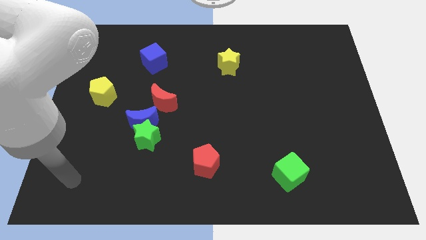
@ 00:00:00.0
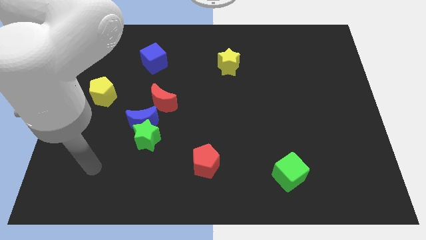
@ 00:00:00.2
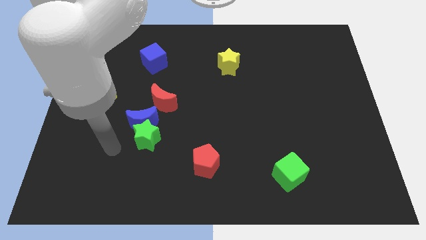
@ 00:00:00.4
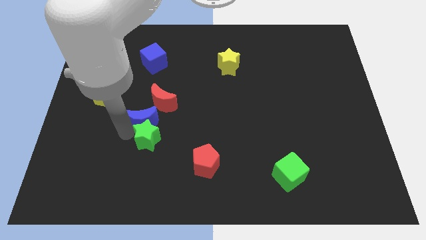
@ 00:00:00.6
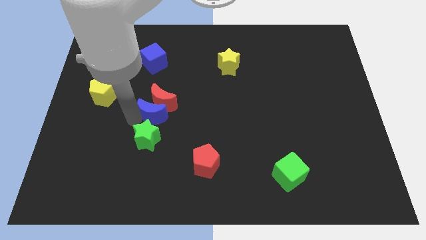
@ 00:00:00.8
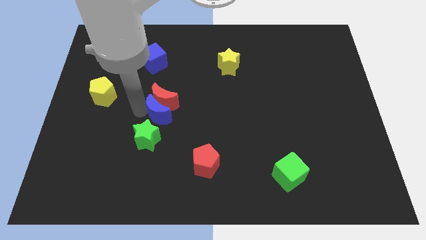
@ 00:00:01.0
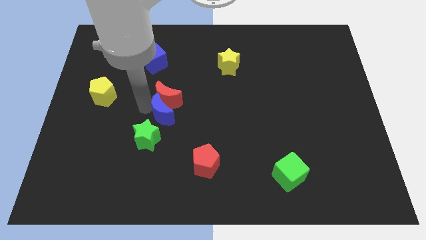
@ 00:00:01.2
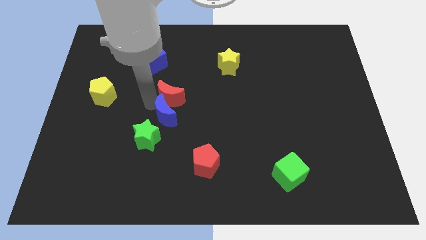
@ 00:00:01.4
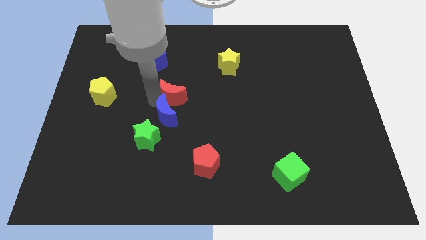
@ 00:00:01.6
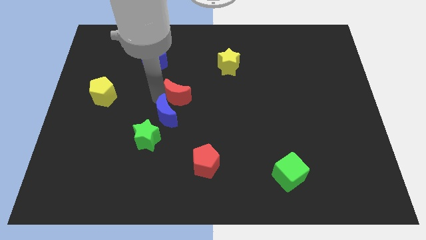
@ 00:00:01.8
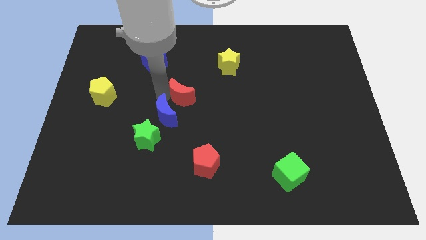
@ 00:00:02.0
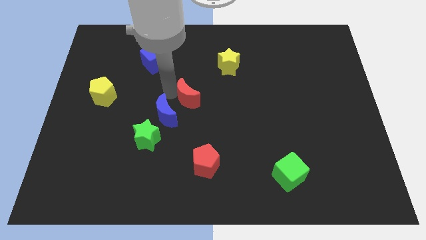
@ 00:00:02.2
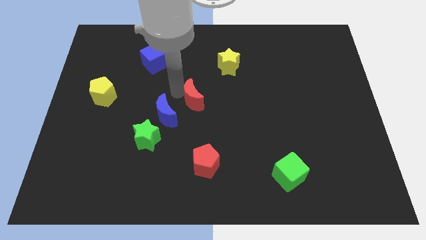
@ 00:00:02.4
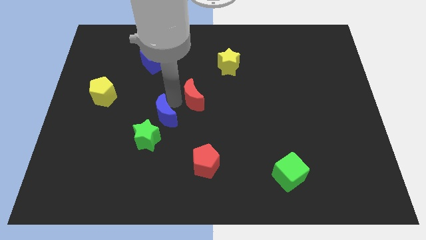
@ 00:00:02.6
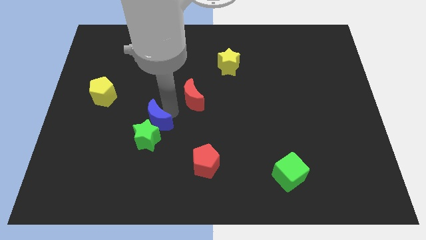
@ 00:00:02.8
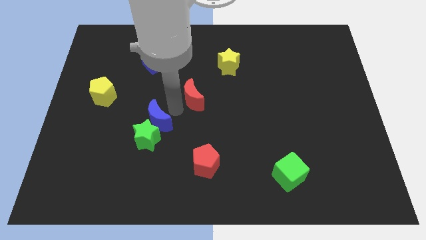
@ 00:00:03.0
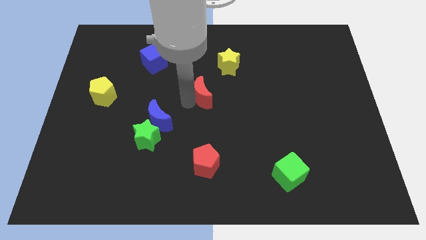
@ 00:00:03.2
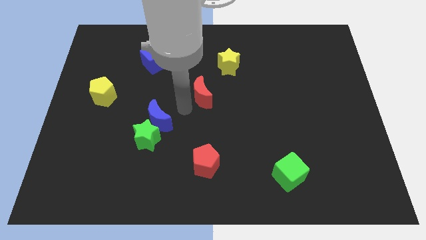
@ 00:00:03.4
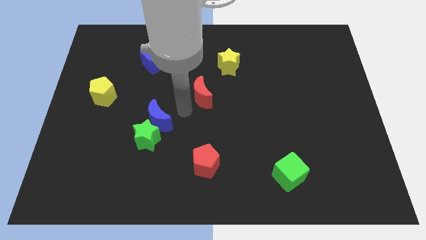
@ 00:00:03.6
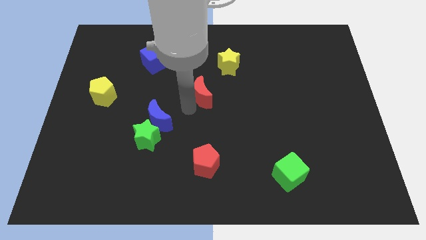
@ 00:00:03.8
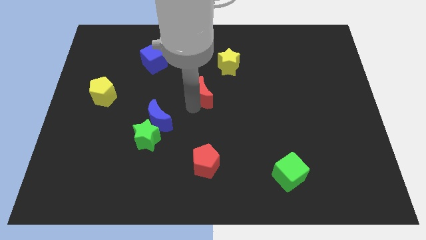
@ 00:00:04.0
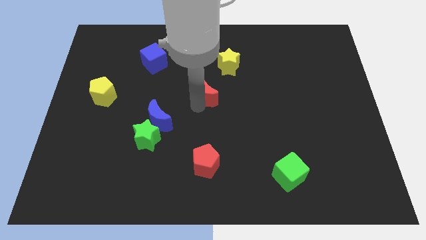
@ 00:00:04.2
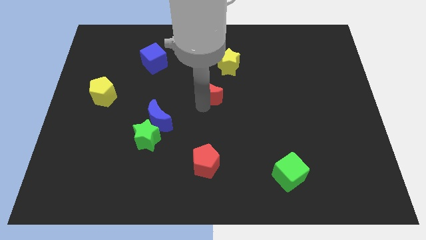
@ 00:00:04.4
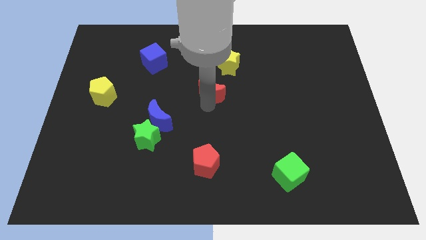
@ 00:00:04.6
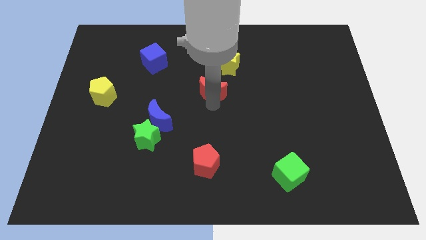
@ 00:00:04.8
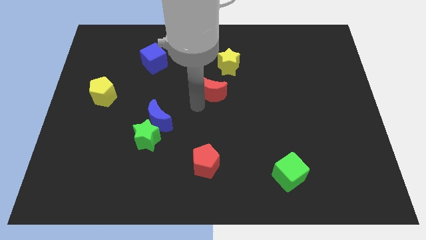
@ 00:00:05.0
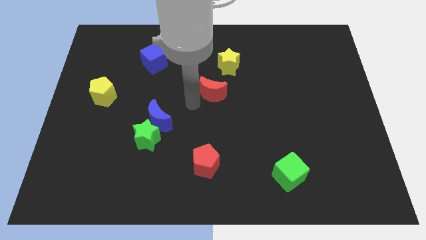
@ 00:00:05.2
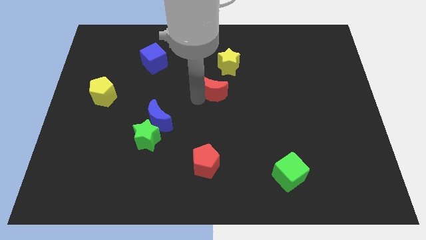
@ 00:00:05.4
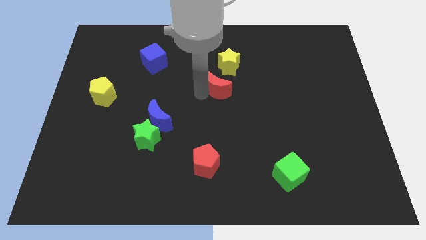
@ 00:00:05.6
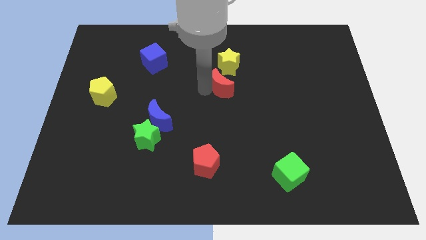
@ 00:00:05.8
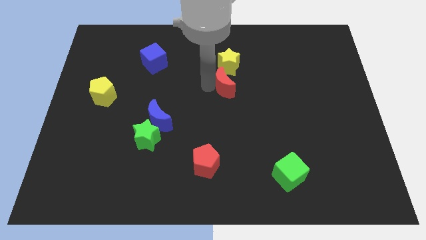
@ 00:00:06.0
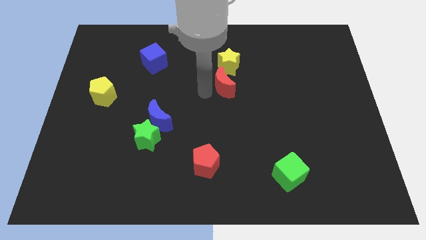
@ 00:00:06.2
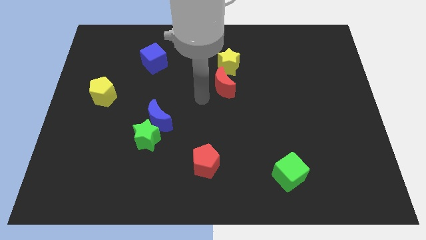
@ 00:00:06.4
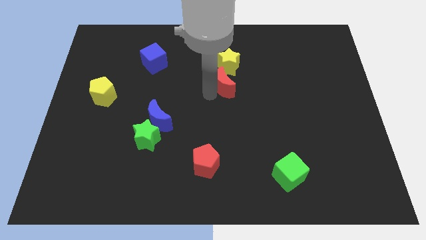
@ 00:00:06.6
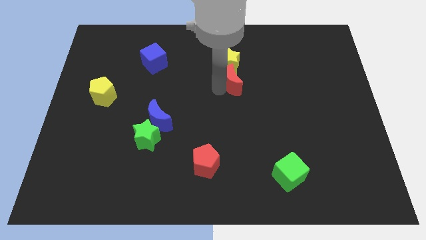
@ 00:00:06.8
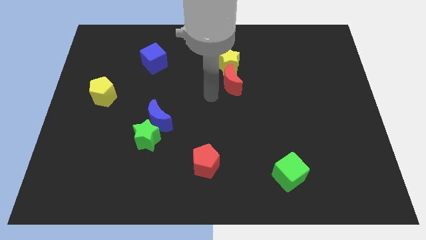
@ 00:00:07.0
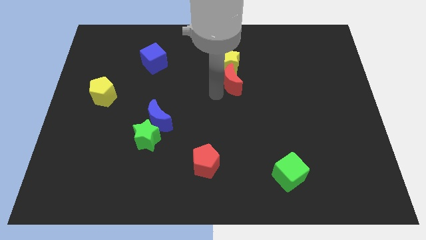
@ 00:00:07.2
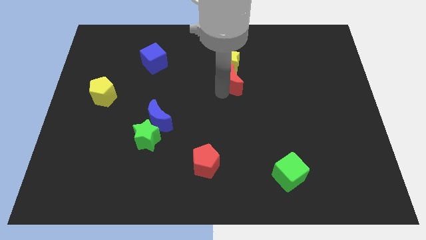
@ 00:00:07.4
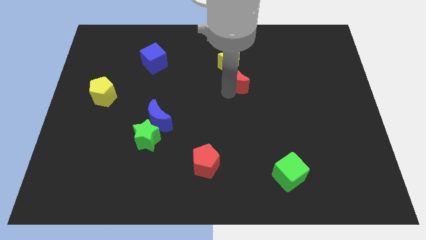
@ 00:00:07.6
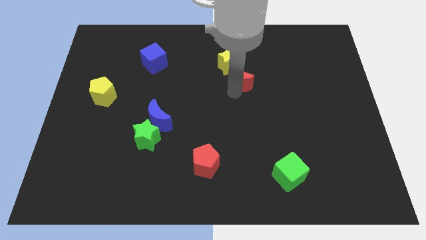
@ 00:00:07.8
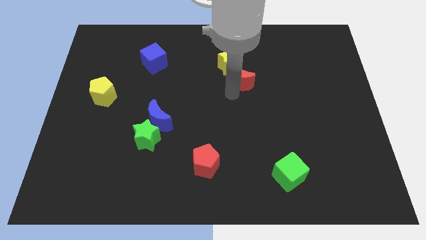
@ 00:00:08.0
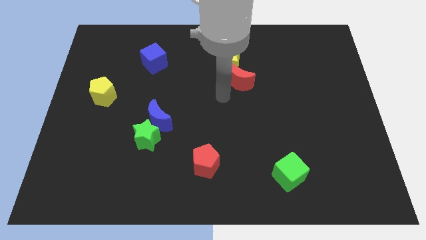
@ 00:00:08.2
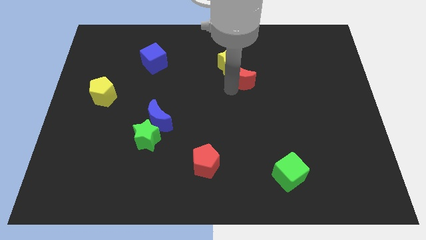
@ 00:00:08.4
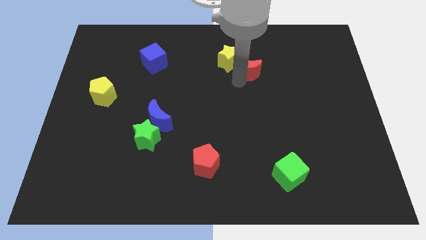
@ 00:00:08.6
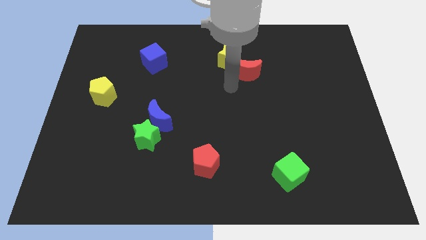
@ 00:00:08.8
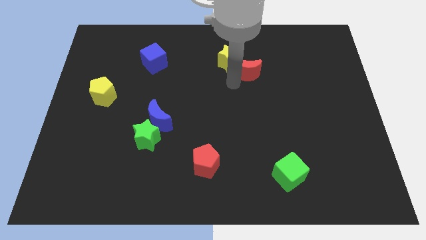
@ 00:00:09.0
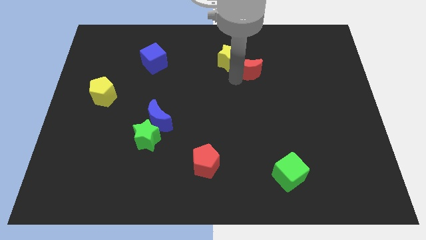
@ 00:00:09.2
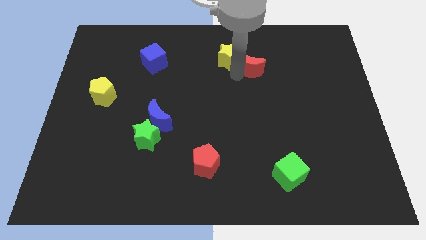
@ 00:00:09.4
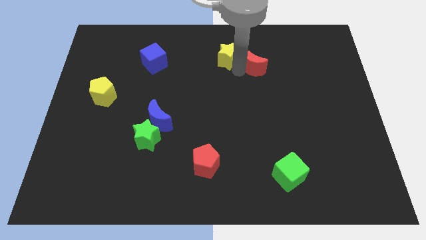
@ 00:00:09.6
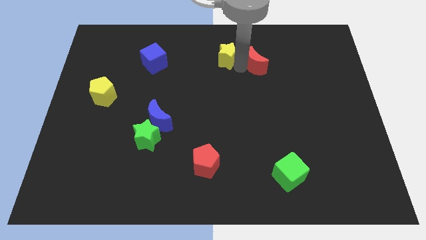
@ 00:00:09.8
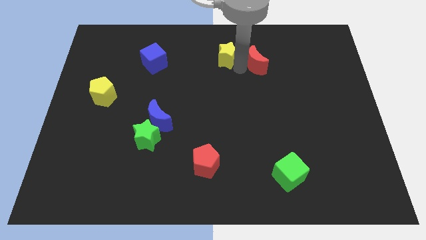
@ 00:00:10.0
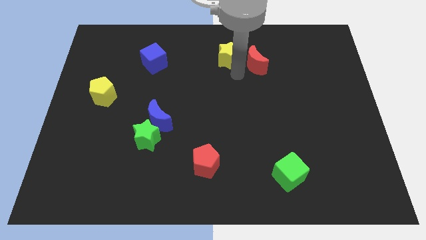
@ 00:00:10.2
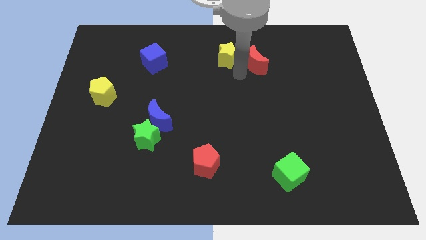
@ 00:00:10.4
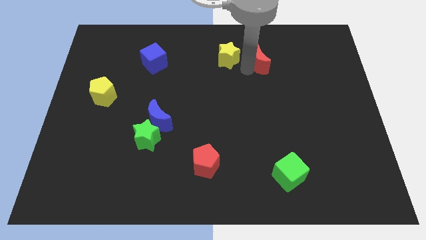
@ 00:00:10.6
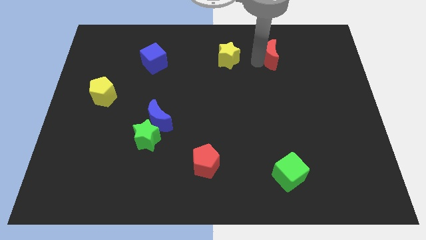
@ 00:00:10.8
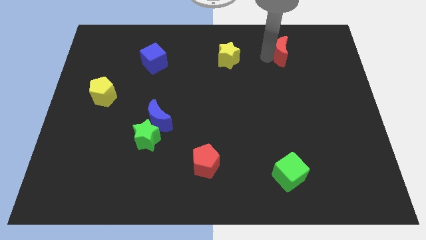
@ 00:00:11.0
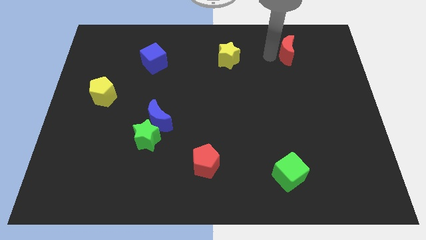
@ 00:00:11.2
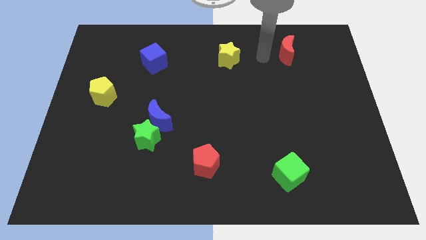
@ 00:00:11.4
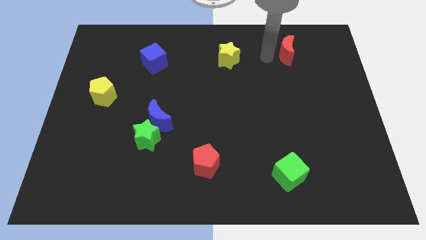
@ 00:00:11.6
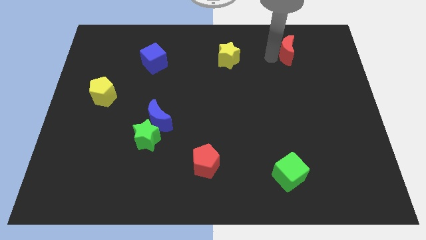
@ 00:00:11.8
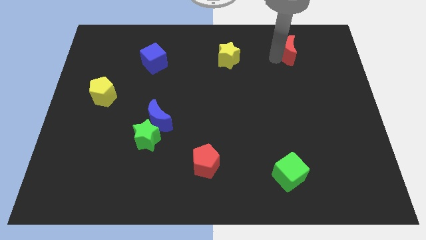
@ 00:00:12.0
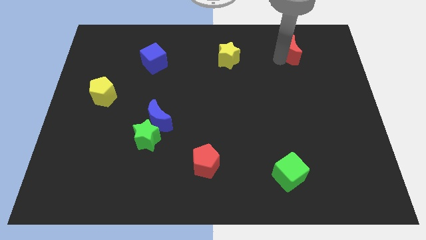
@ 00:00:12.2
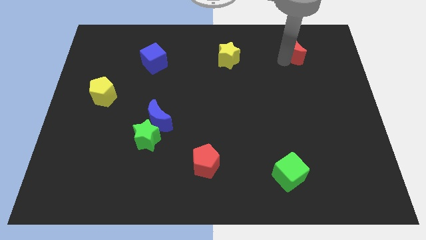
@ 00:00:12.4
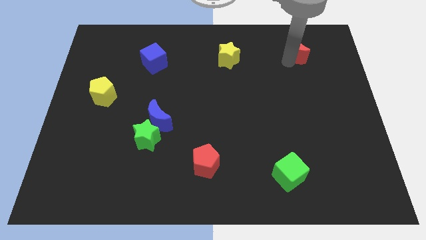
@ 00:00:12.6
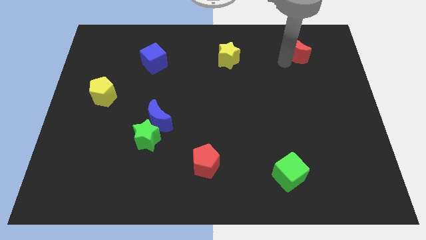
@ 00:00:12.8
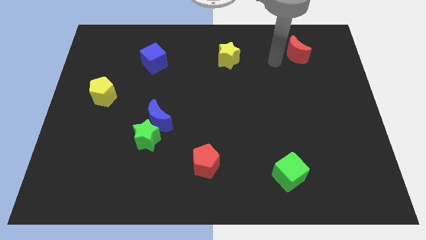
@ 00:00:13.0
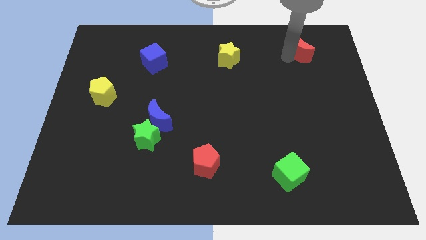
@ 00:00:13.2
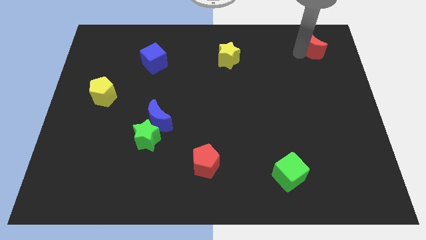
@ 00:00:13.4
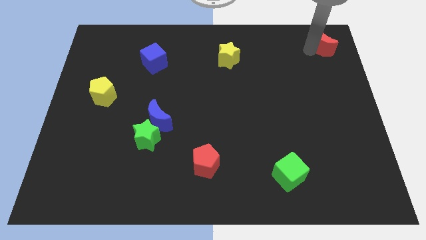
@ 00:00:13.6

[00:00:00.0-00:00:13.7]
put the red moon to the top right of the board

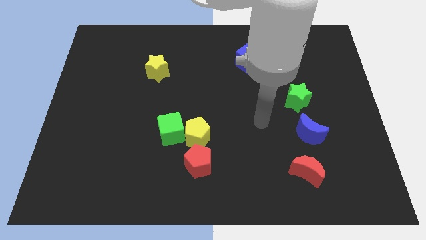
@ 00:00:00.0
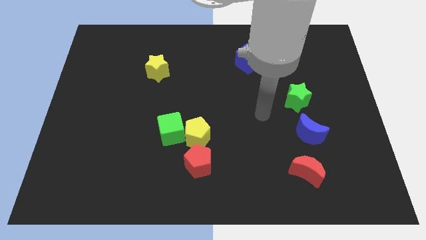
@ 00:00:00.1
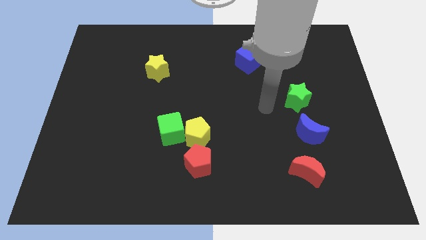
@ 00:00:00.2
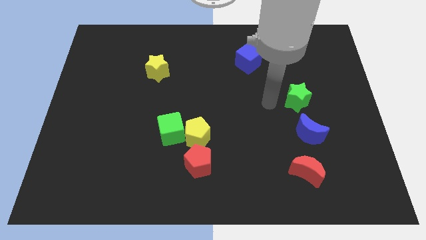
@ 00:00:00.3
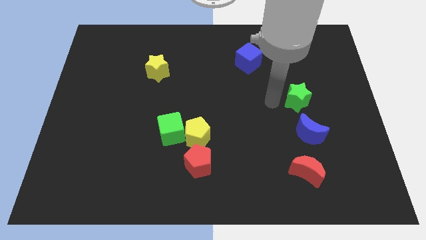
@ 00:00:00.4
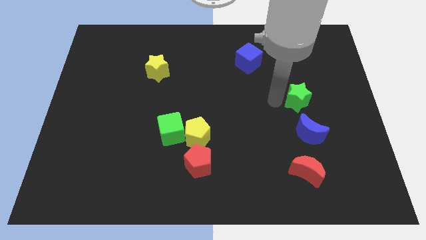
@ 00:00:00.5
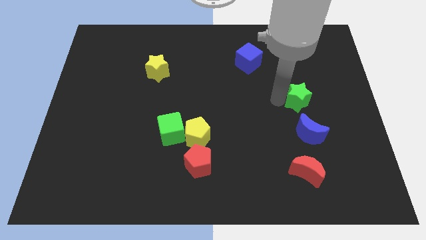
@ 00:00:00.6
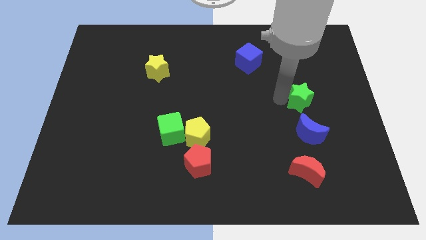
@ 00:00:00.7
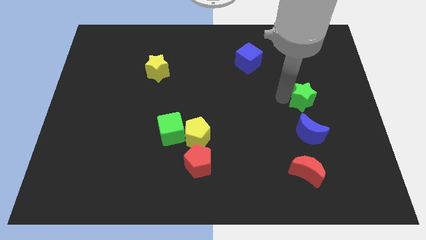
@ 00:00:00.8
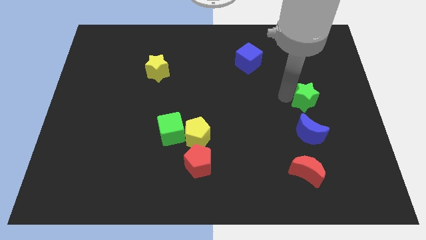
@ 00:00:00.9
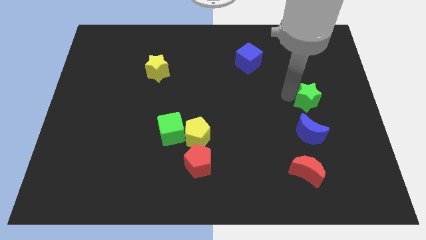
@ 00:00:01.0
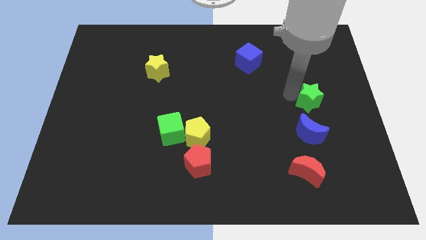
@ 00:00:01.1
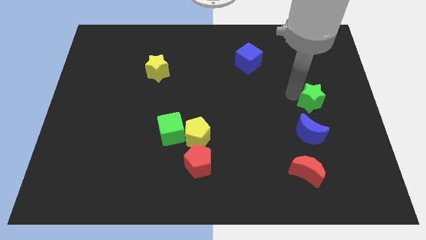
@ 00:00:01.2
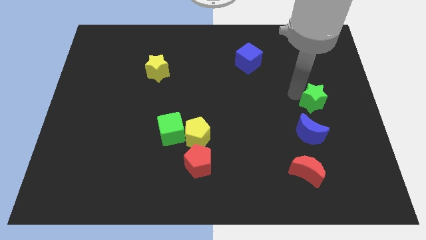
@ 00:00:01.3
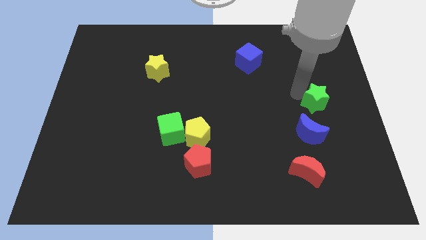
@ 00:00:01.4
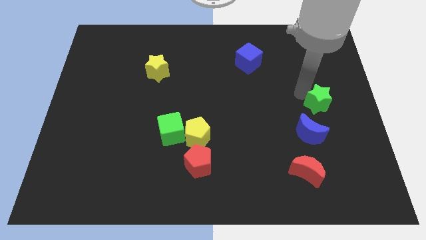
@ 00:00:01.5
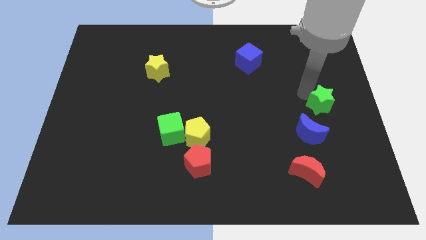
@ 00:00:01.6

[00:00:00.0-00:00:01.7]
push the green star to the center right
